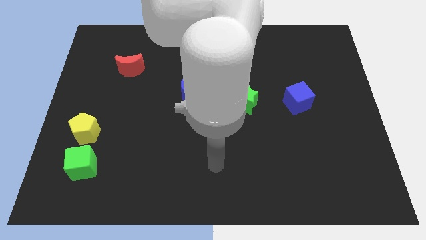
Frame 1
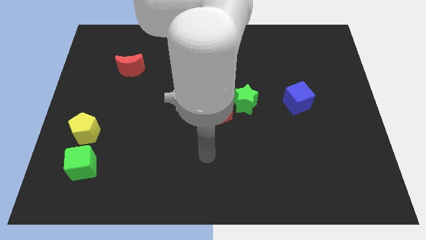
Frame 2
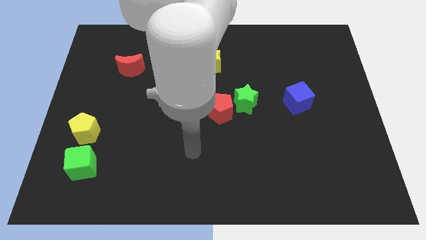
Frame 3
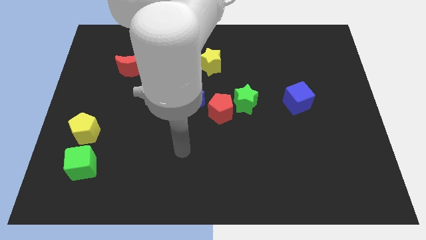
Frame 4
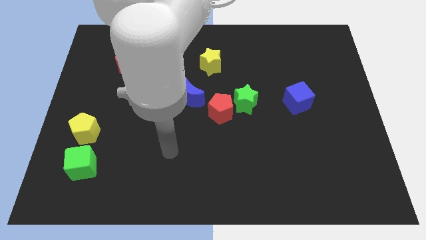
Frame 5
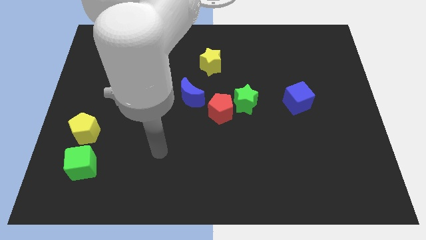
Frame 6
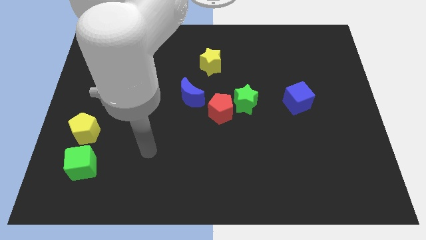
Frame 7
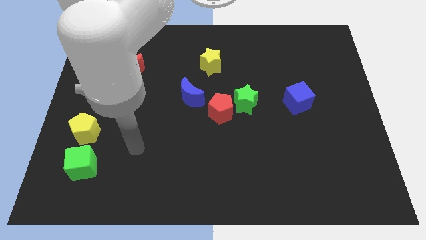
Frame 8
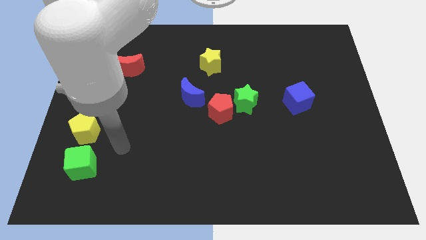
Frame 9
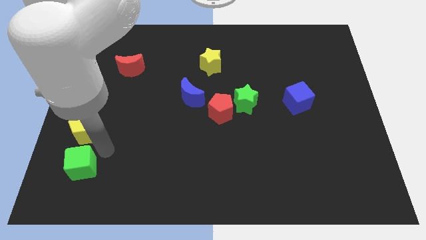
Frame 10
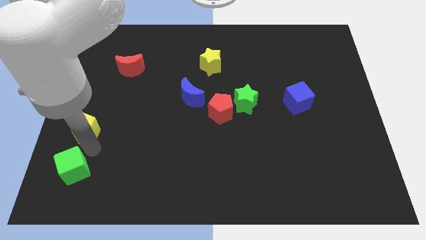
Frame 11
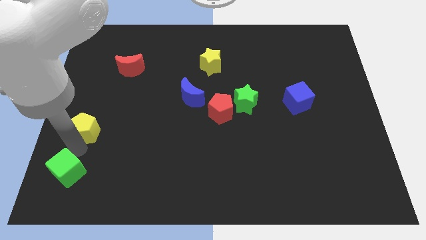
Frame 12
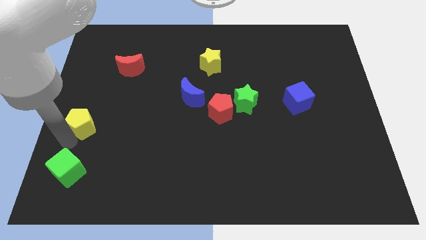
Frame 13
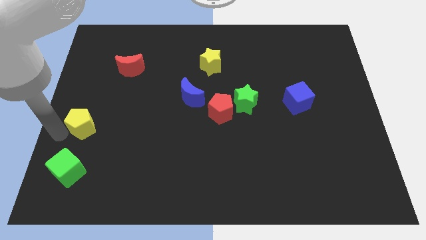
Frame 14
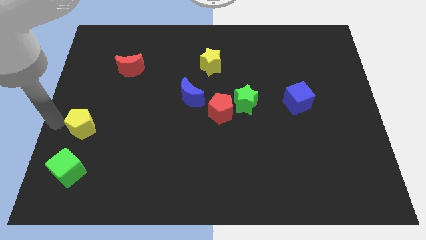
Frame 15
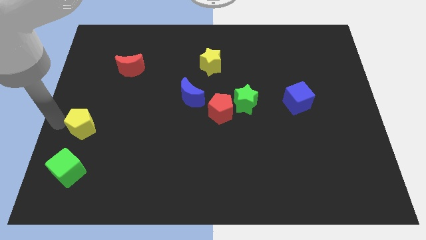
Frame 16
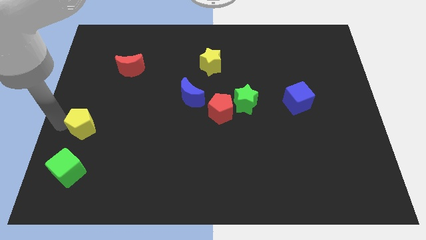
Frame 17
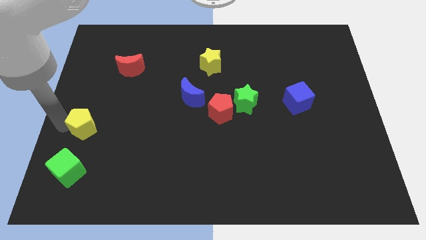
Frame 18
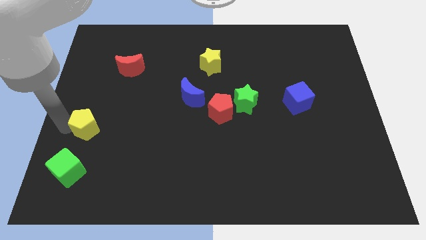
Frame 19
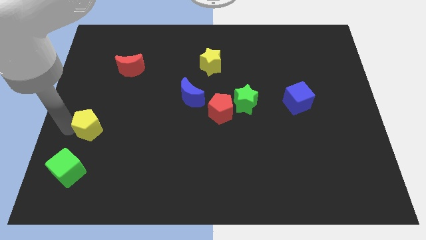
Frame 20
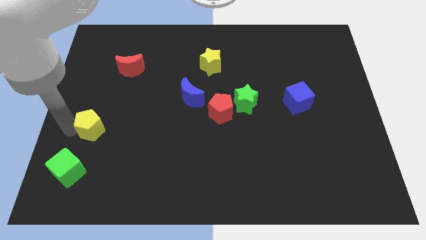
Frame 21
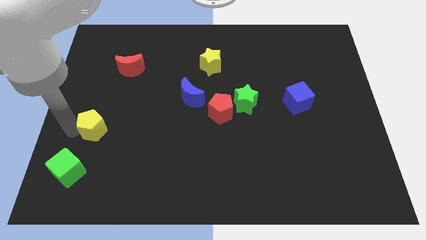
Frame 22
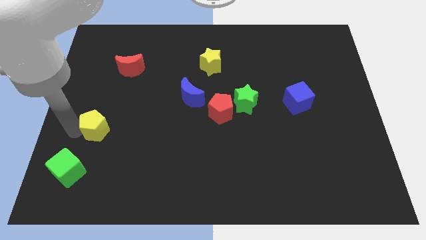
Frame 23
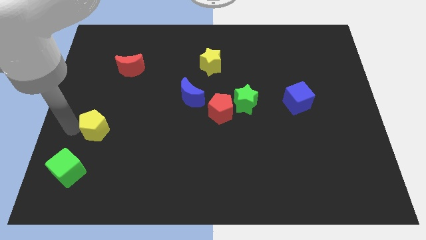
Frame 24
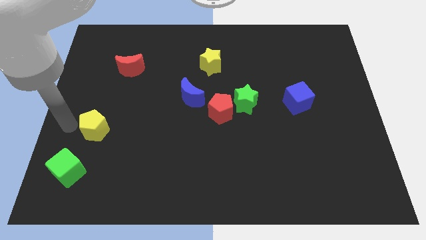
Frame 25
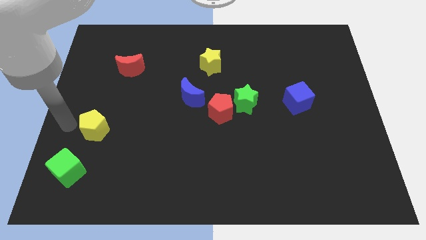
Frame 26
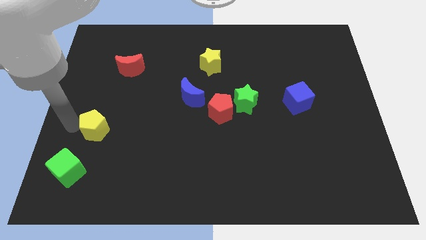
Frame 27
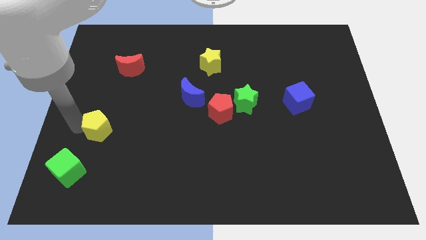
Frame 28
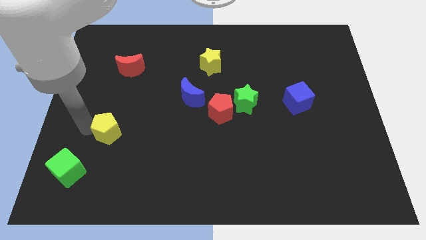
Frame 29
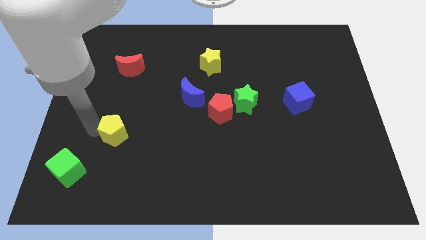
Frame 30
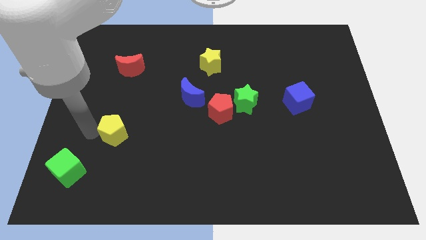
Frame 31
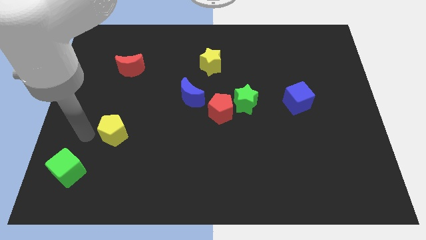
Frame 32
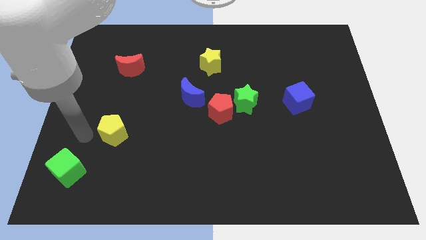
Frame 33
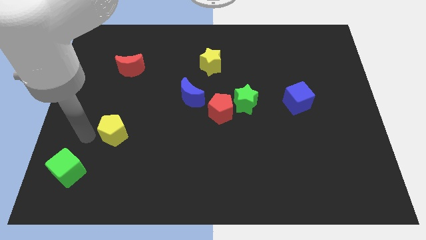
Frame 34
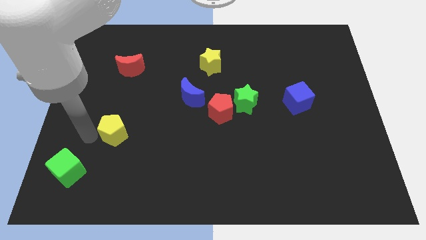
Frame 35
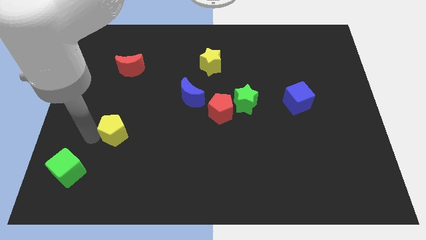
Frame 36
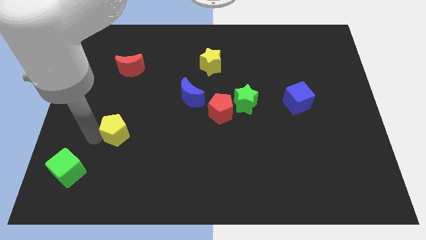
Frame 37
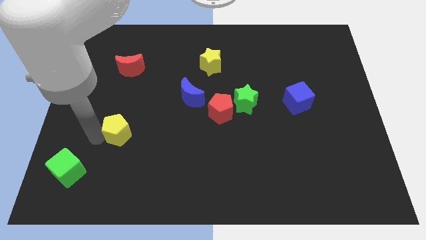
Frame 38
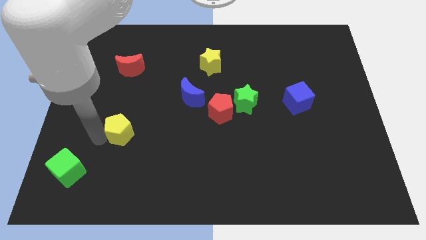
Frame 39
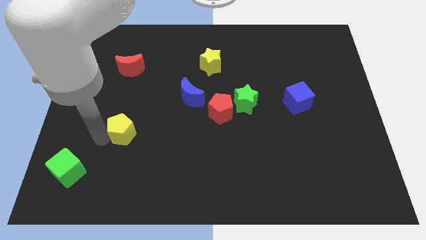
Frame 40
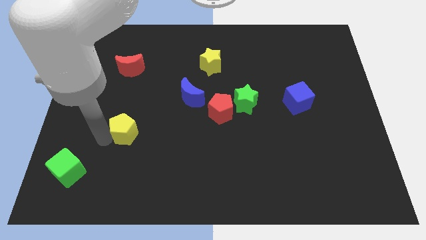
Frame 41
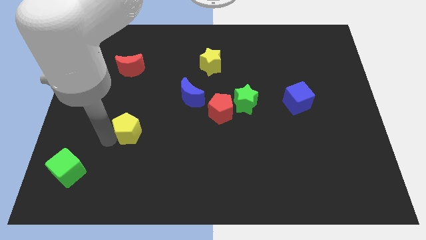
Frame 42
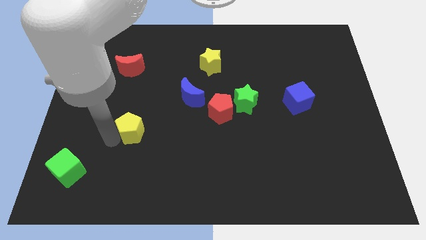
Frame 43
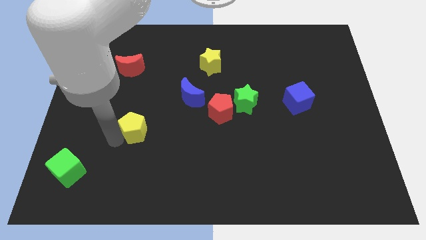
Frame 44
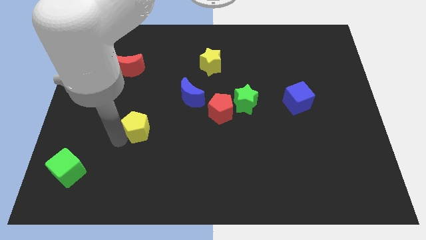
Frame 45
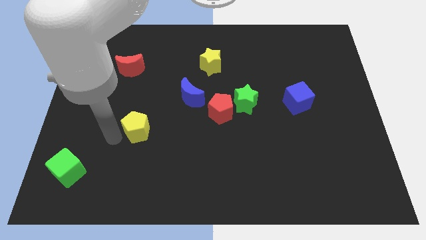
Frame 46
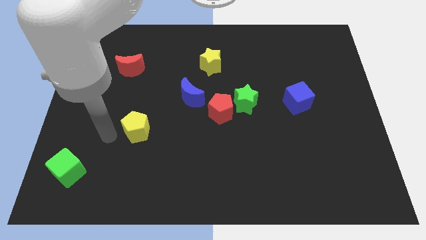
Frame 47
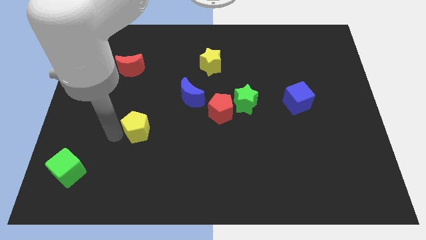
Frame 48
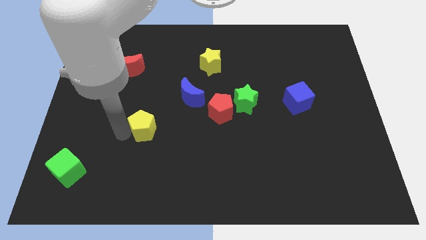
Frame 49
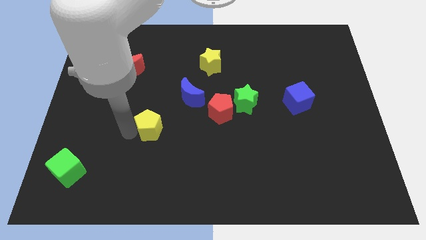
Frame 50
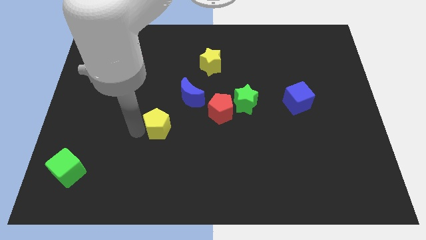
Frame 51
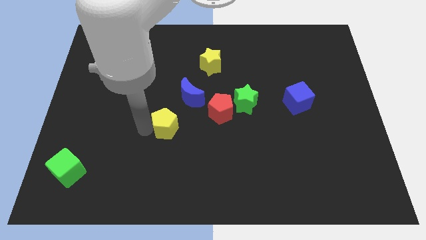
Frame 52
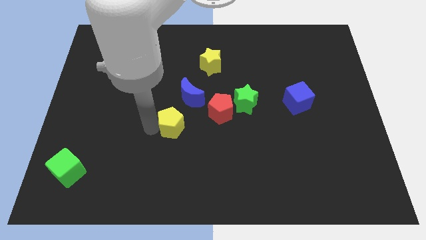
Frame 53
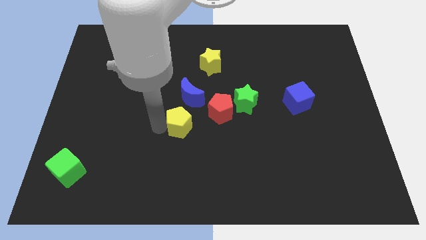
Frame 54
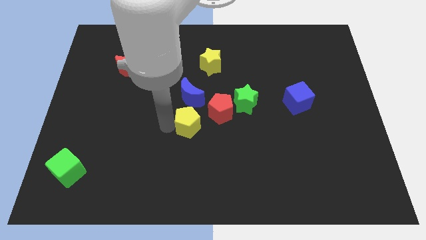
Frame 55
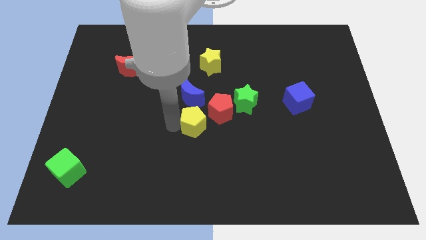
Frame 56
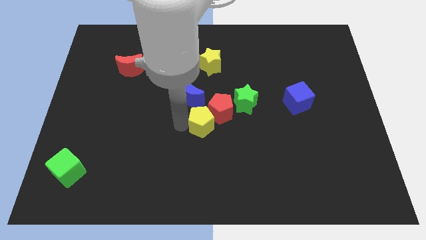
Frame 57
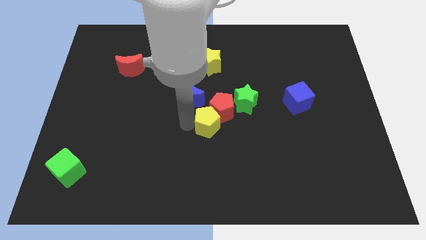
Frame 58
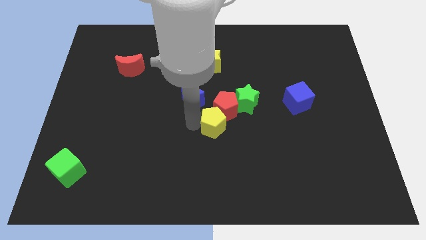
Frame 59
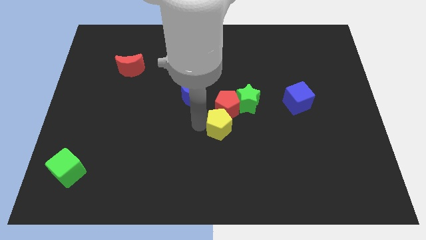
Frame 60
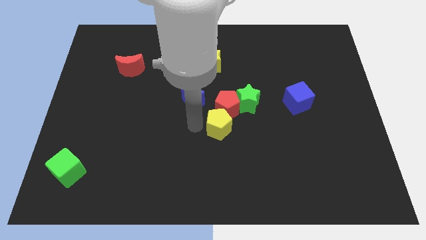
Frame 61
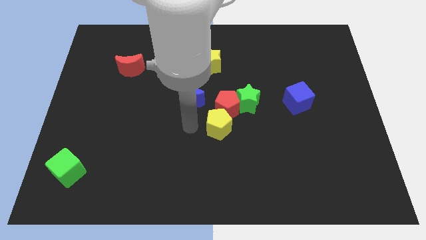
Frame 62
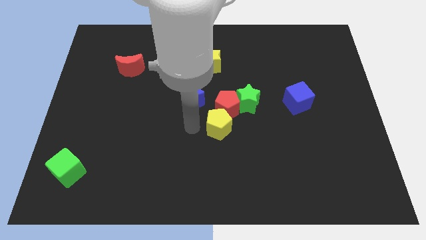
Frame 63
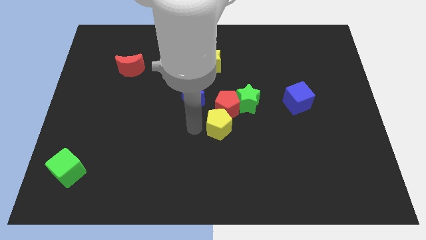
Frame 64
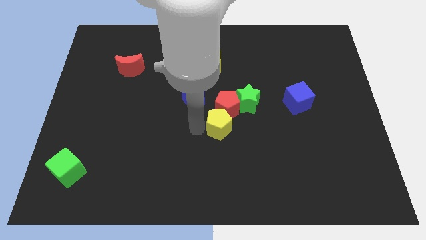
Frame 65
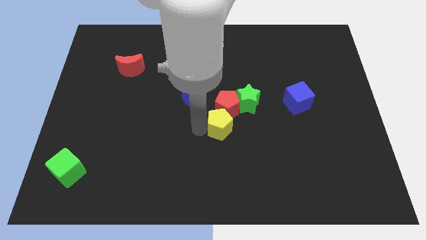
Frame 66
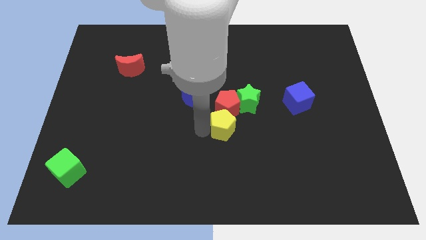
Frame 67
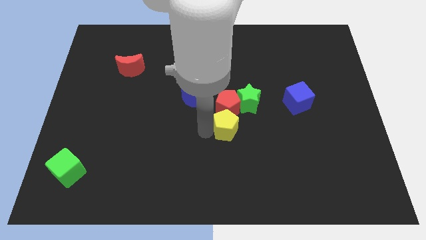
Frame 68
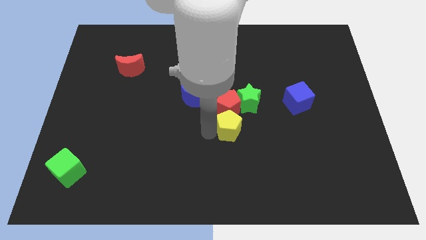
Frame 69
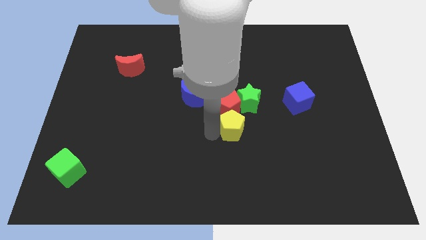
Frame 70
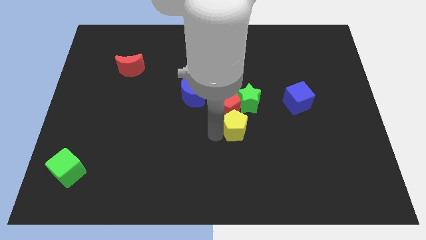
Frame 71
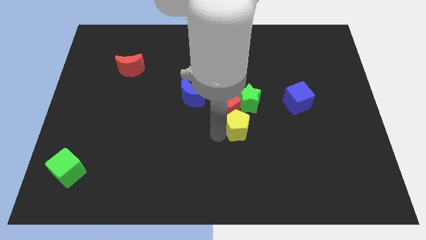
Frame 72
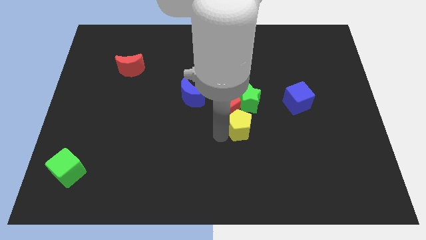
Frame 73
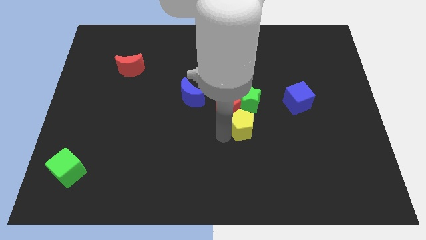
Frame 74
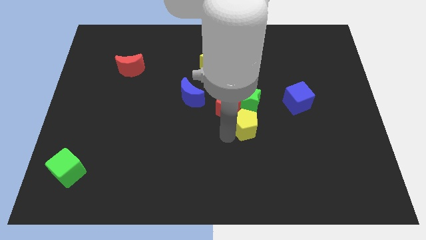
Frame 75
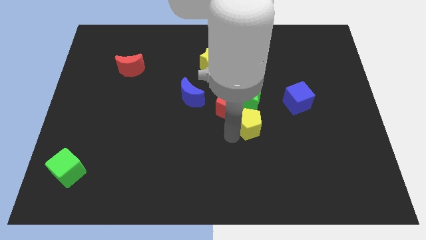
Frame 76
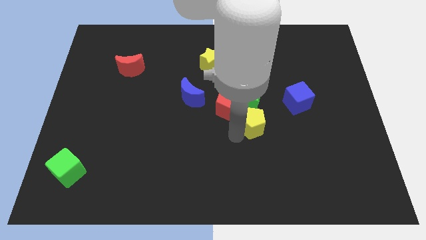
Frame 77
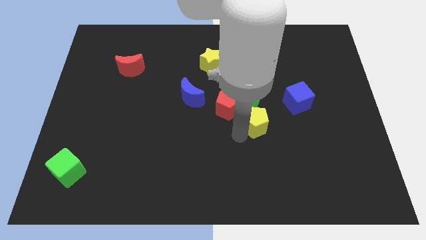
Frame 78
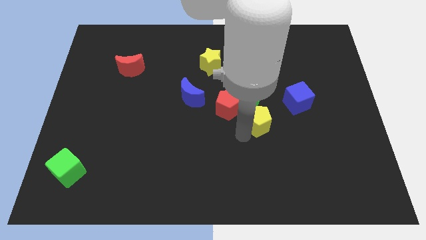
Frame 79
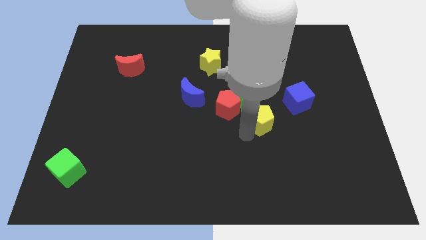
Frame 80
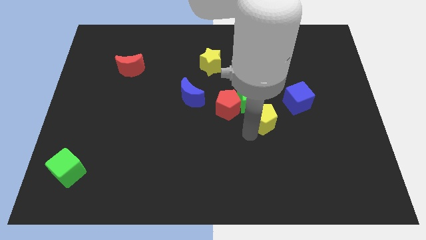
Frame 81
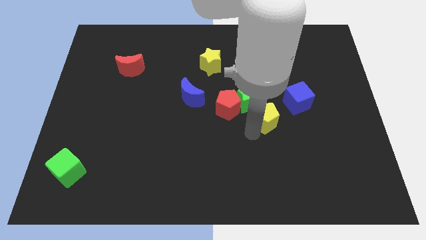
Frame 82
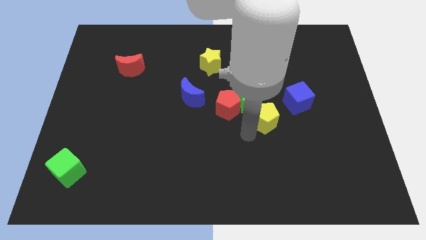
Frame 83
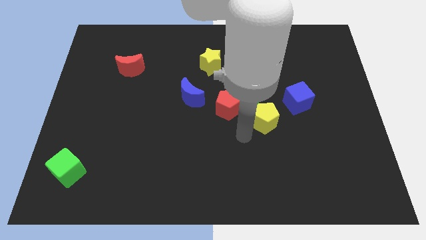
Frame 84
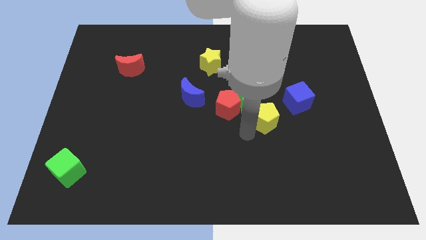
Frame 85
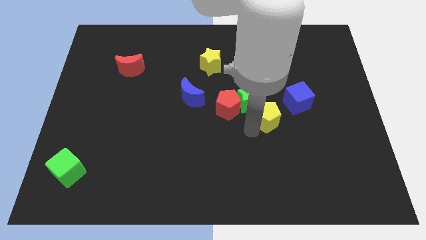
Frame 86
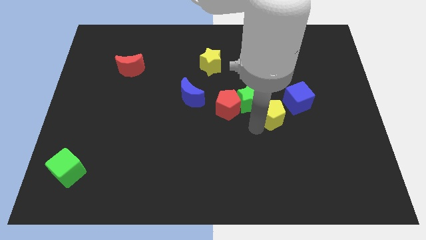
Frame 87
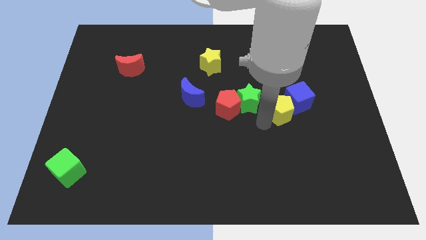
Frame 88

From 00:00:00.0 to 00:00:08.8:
move the yellow pentagon next to the blue cube
